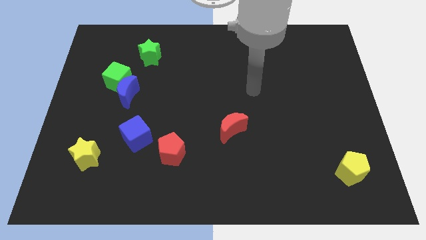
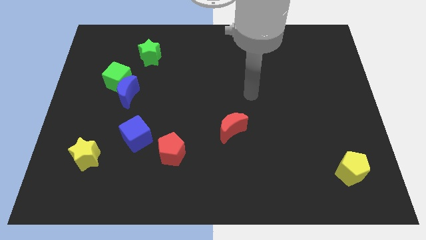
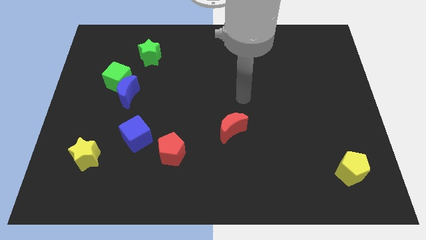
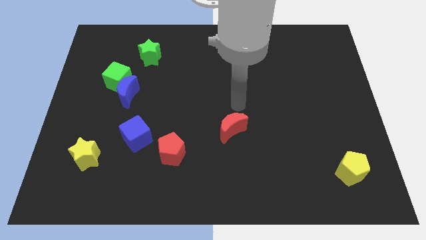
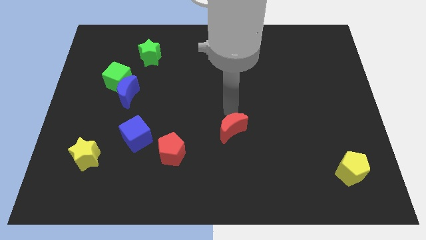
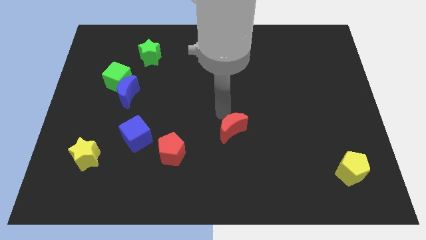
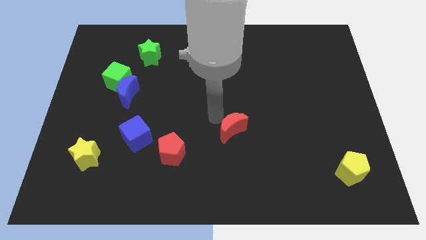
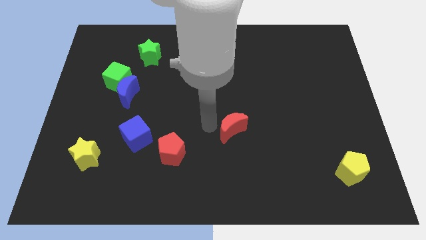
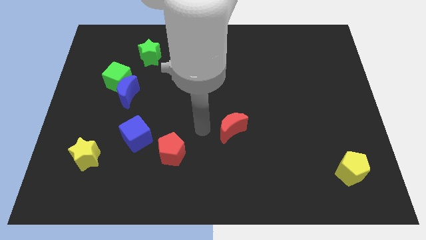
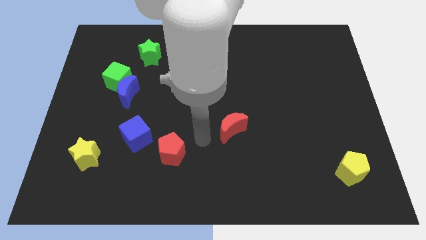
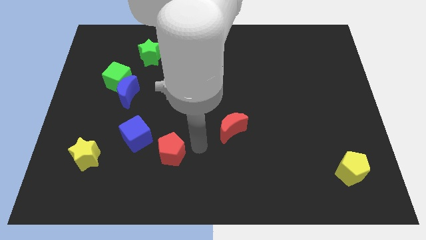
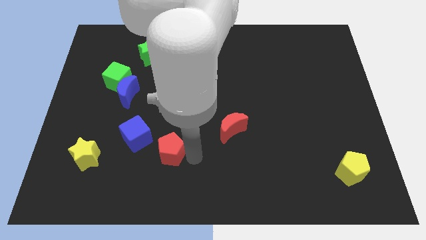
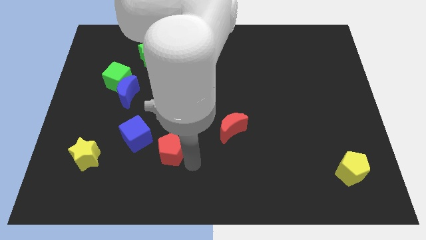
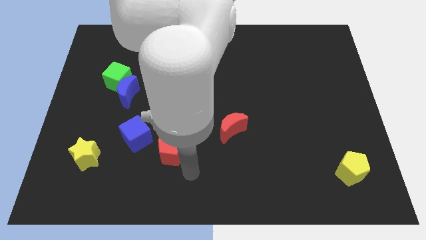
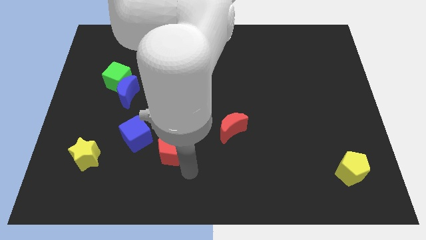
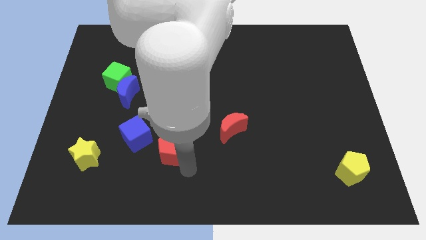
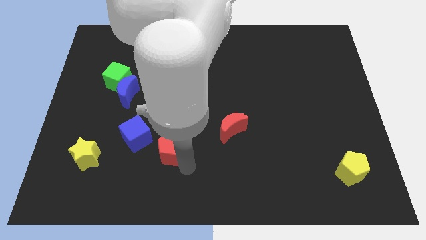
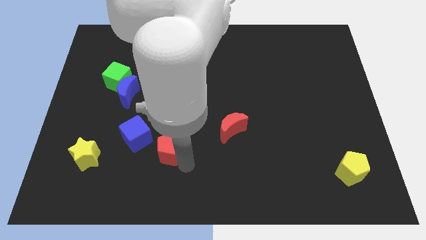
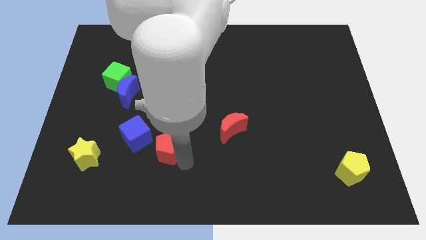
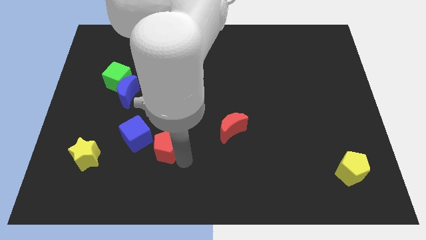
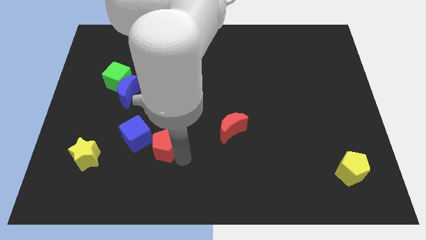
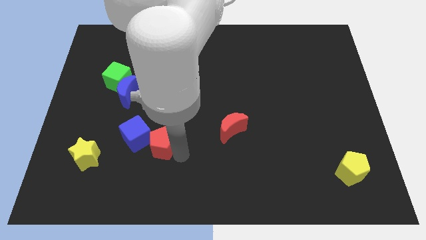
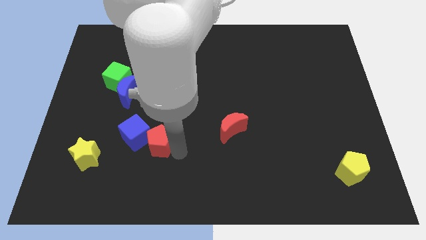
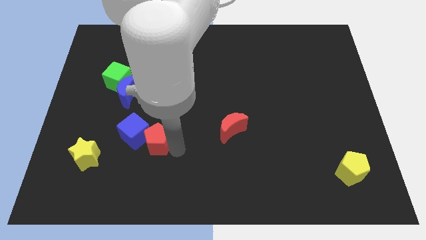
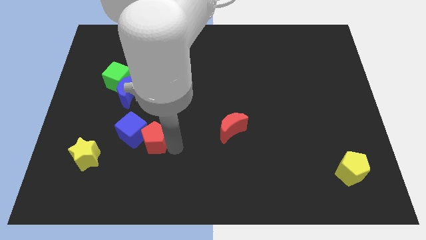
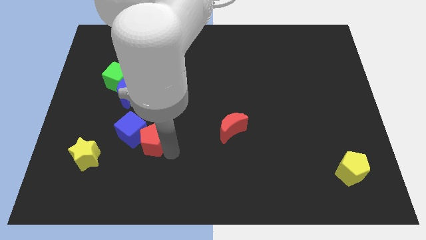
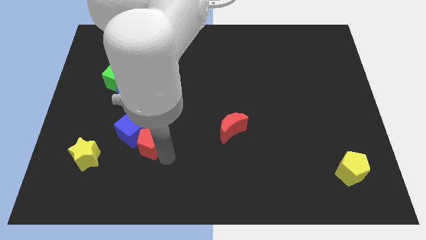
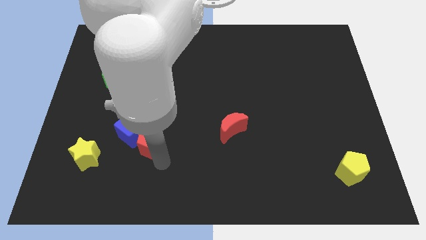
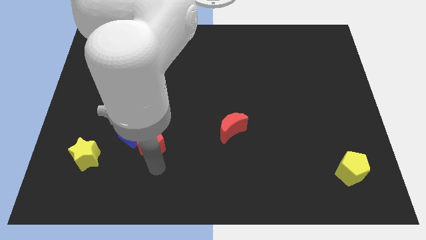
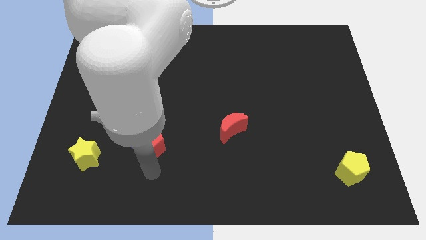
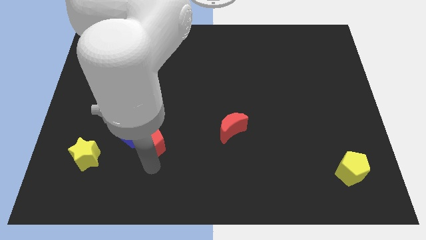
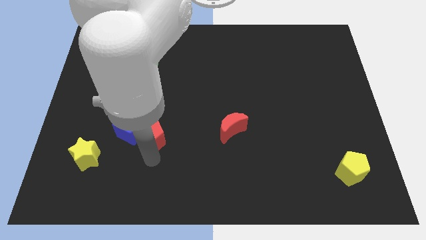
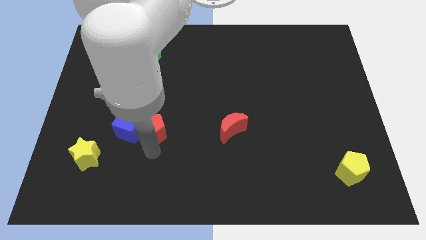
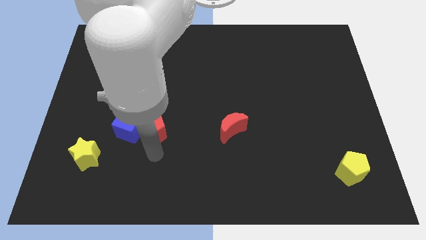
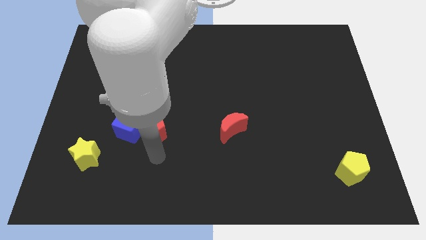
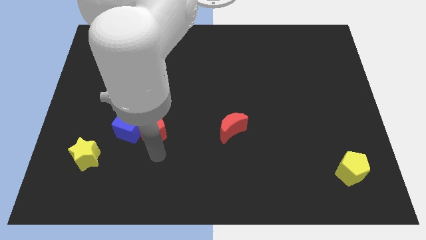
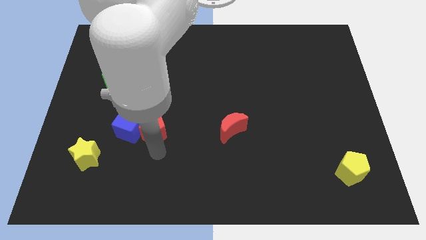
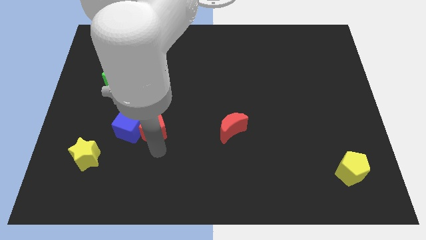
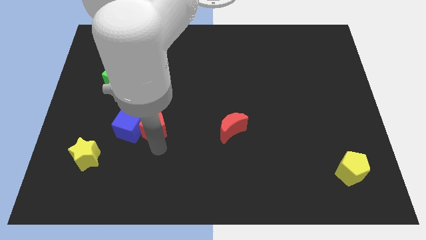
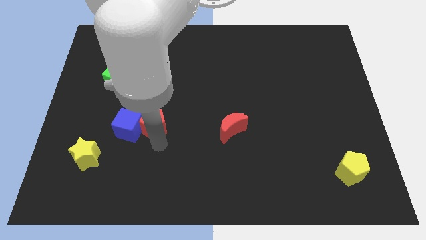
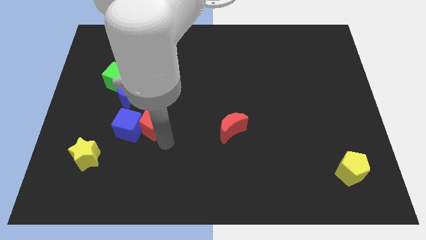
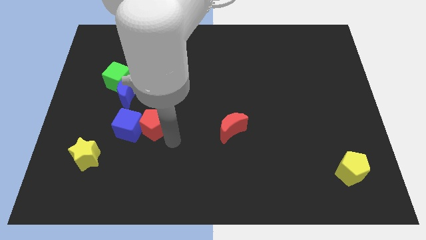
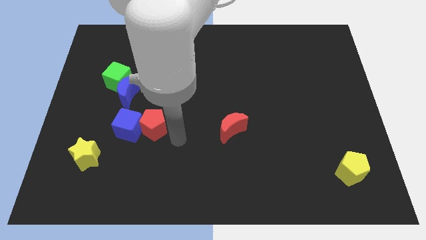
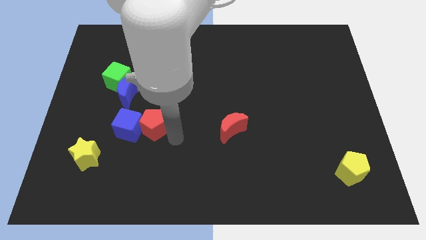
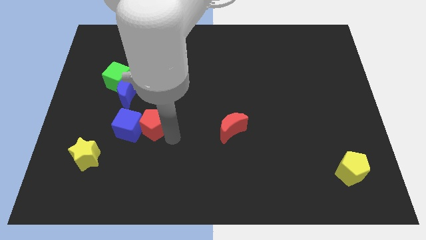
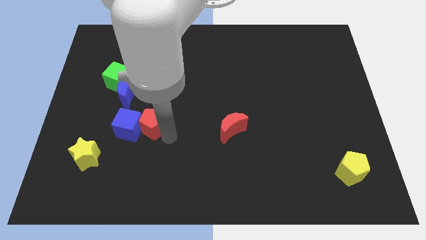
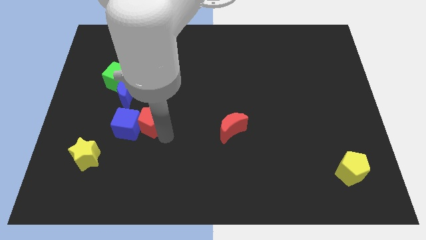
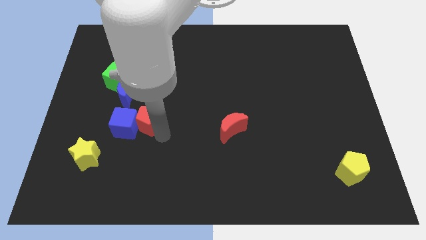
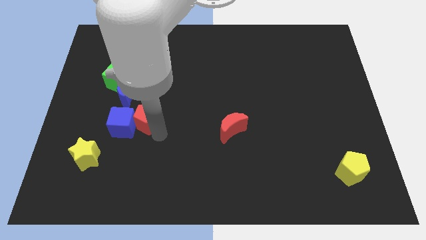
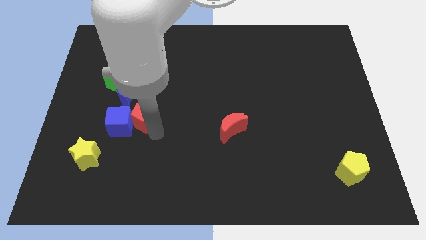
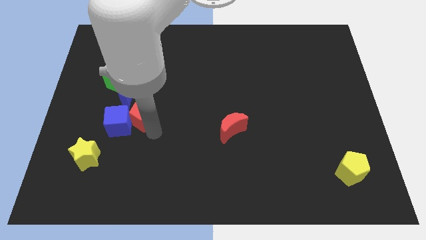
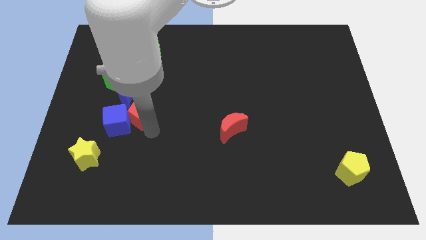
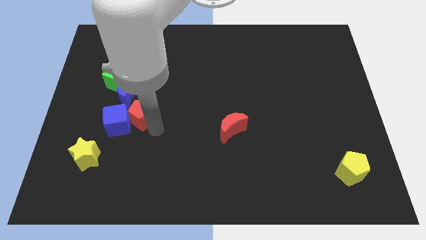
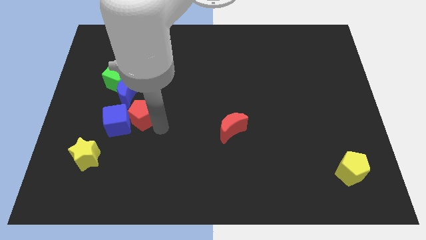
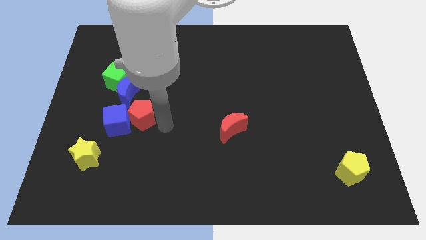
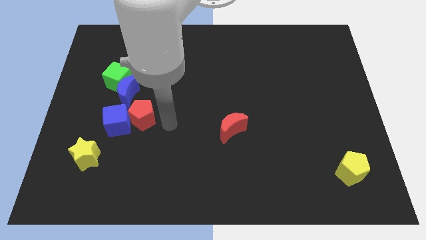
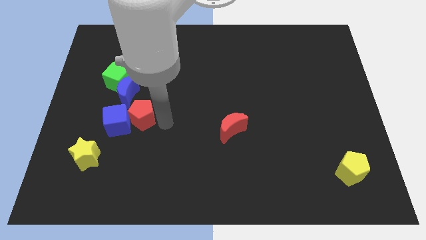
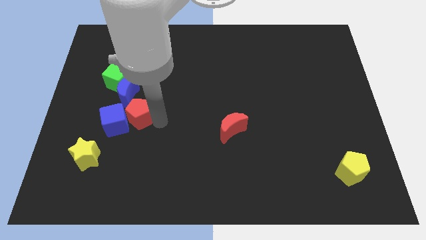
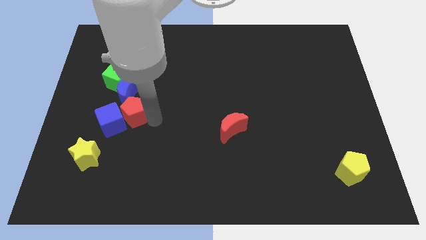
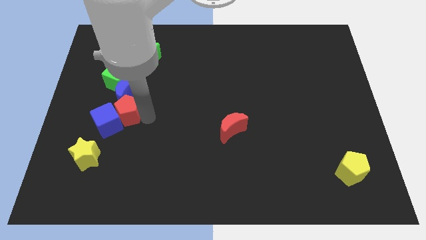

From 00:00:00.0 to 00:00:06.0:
push the red pentagon to the bottom of the green cube

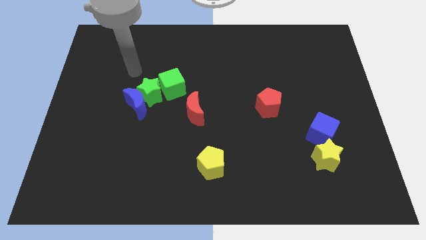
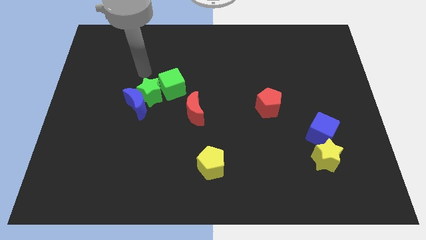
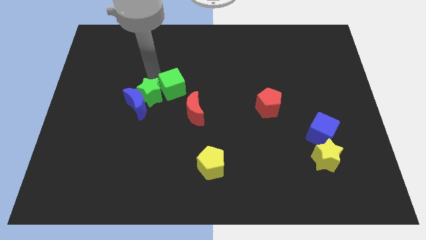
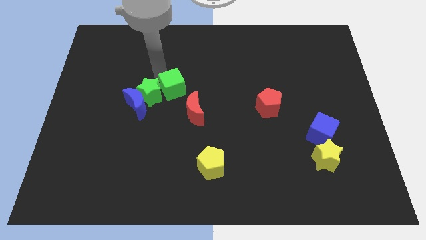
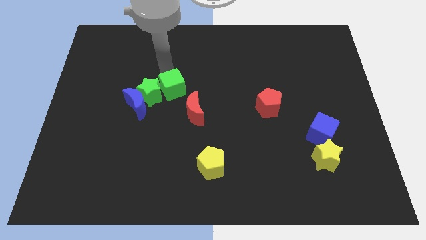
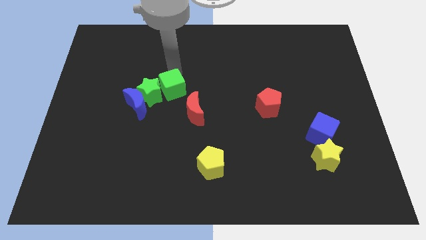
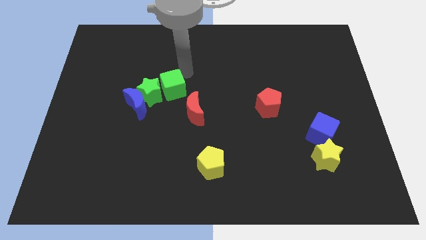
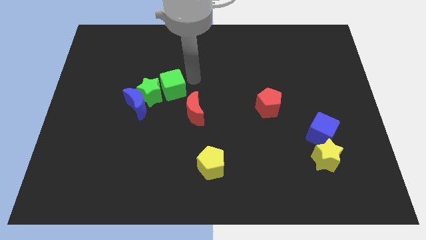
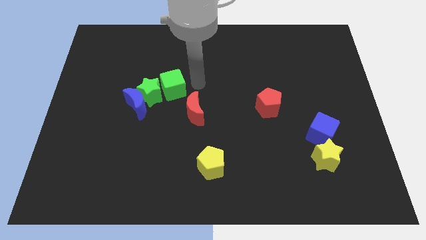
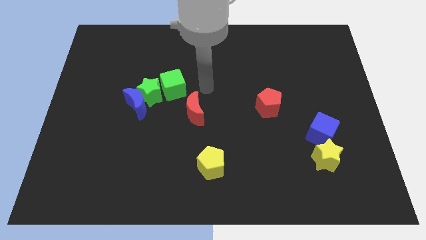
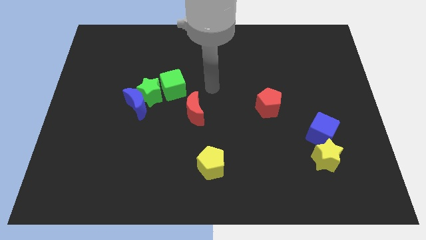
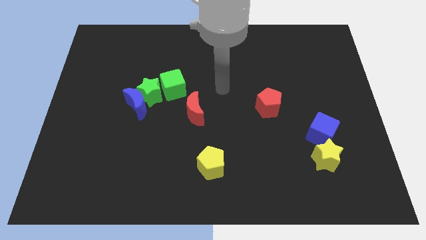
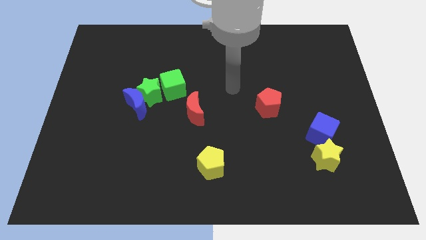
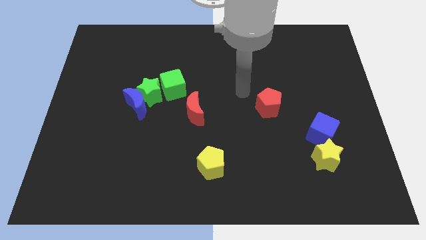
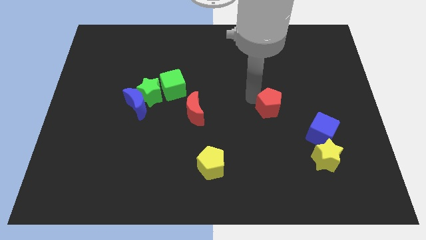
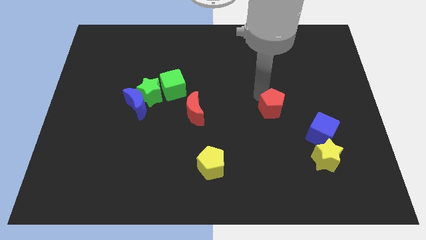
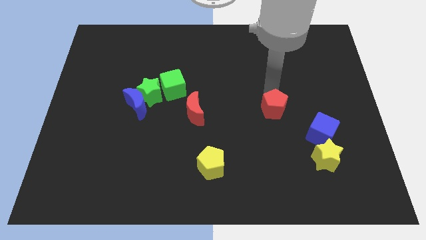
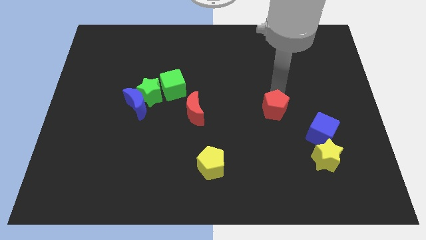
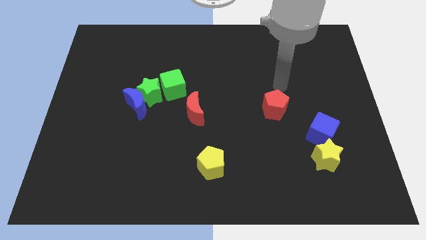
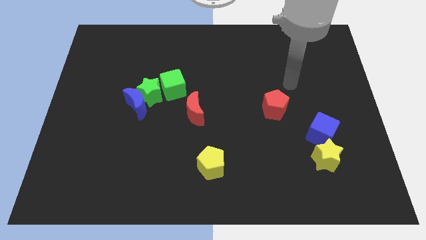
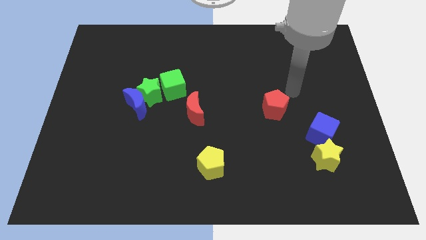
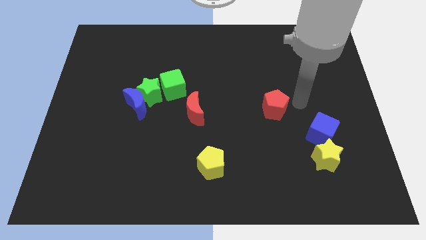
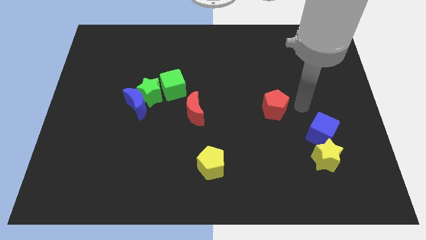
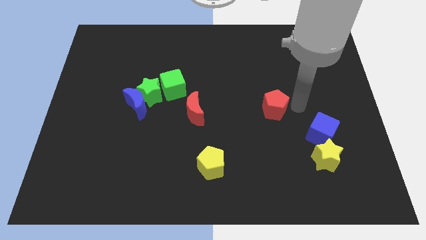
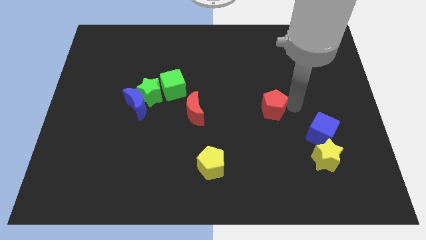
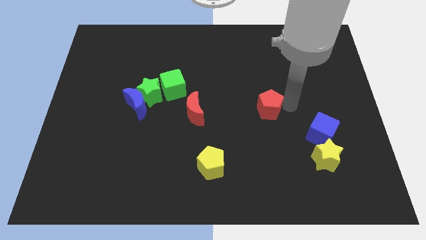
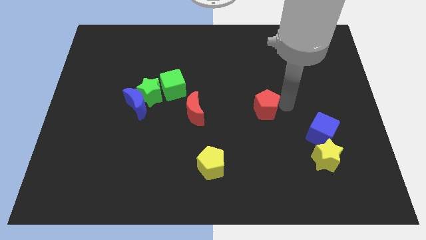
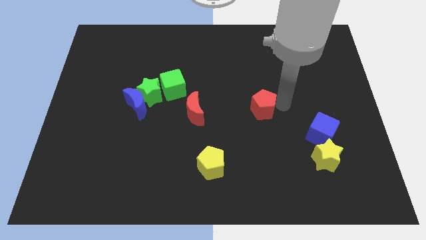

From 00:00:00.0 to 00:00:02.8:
move the red pentagon just right of the red moon
